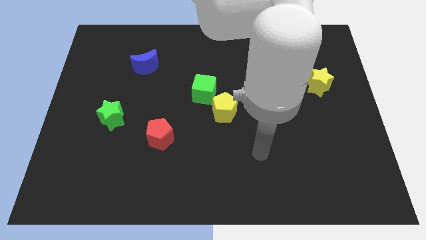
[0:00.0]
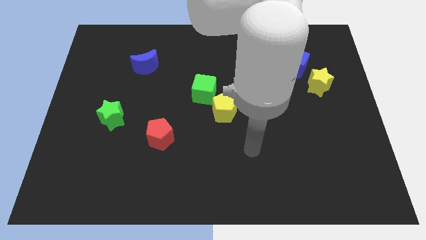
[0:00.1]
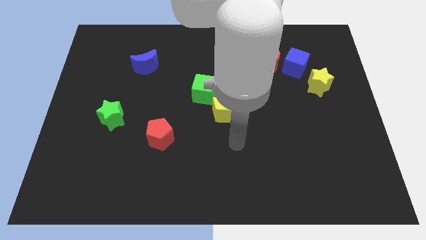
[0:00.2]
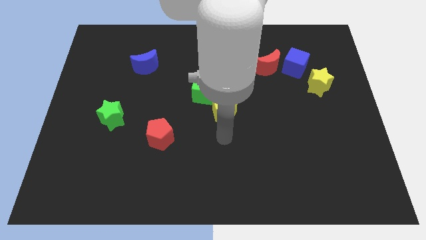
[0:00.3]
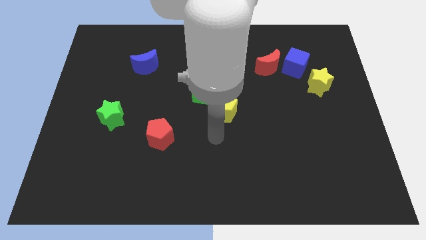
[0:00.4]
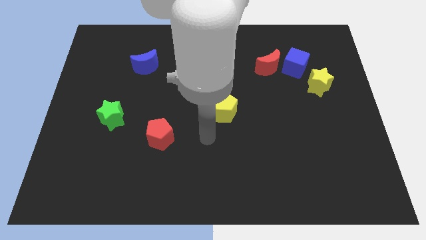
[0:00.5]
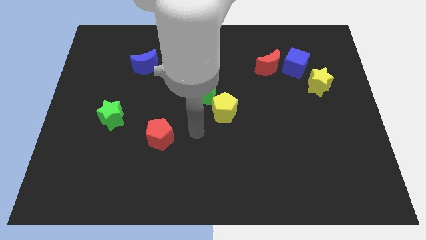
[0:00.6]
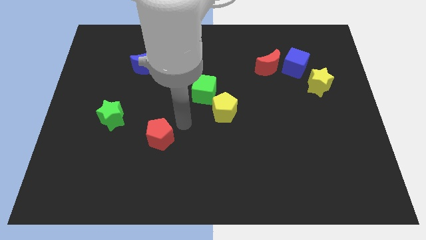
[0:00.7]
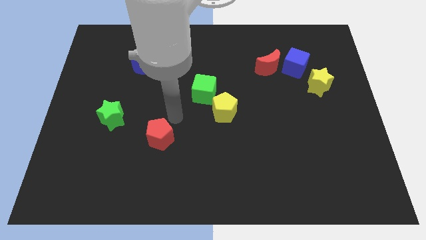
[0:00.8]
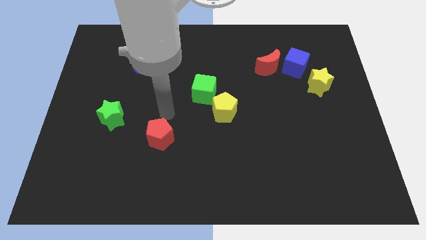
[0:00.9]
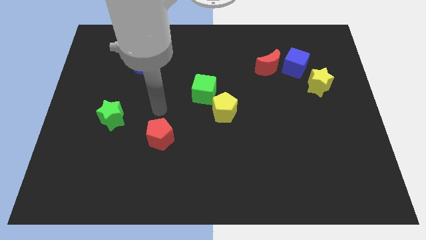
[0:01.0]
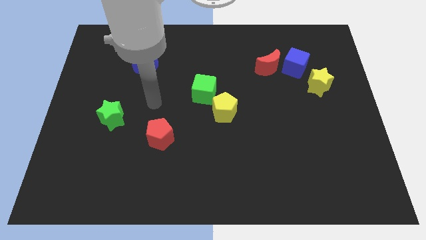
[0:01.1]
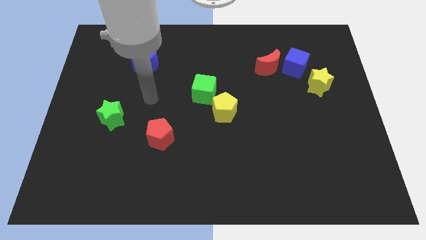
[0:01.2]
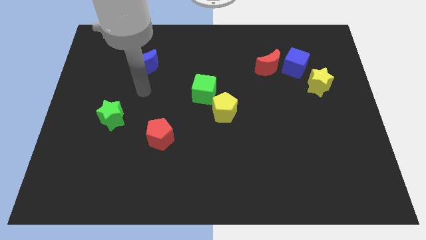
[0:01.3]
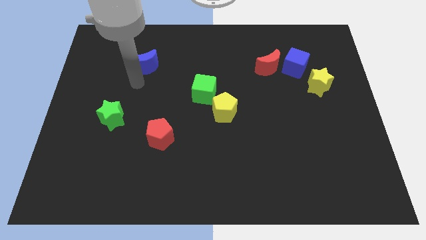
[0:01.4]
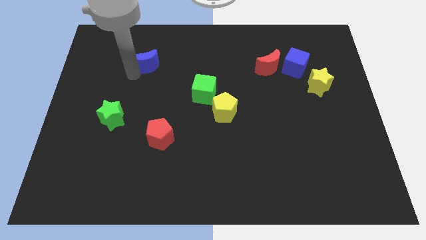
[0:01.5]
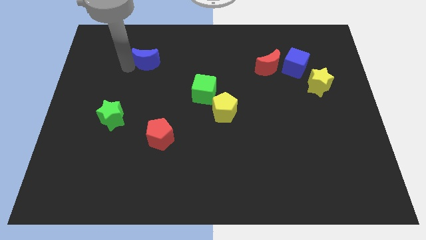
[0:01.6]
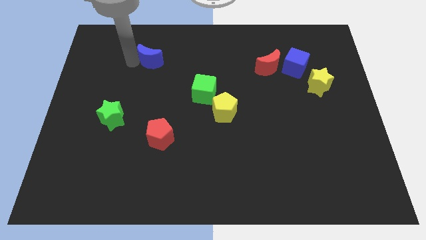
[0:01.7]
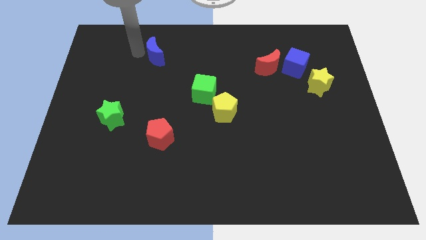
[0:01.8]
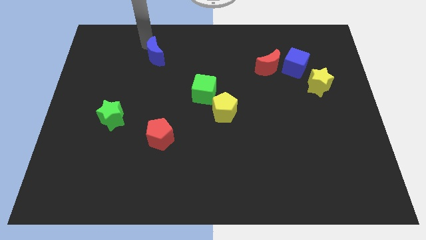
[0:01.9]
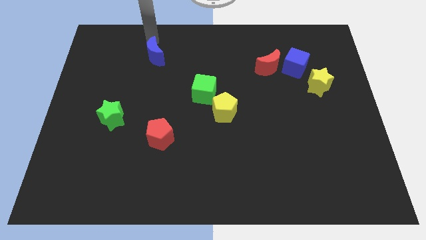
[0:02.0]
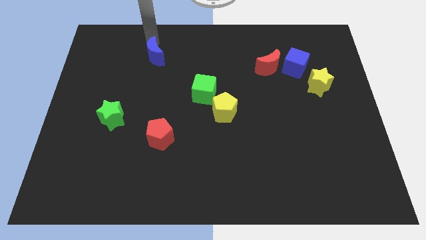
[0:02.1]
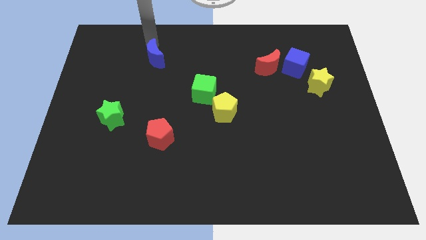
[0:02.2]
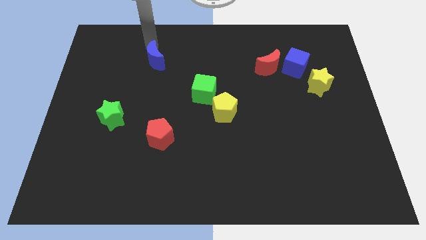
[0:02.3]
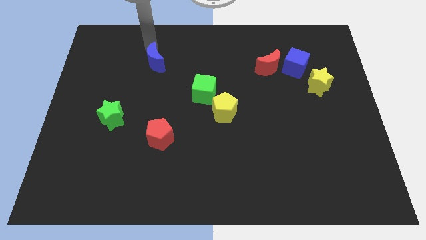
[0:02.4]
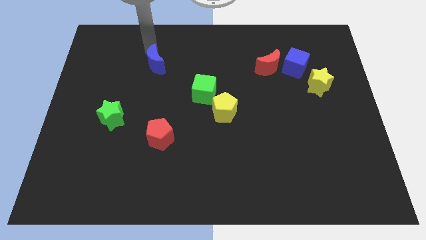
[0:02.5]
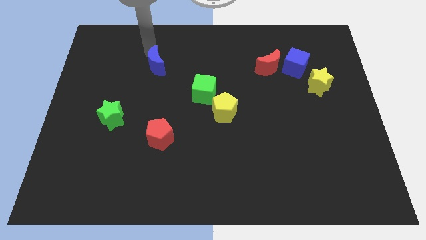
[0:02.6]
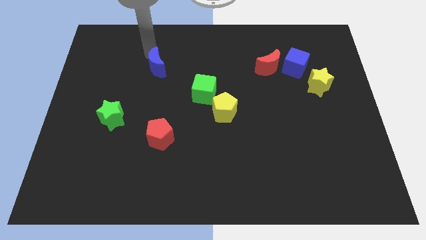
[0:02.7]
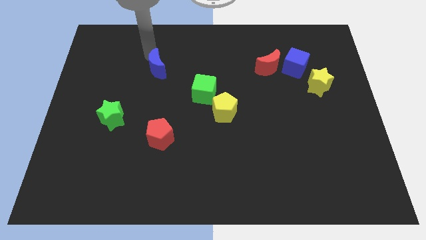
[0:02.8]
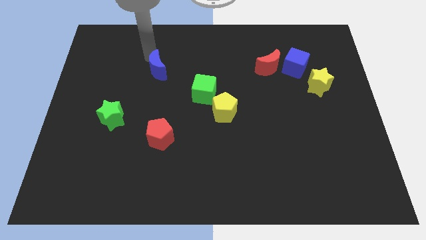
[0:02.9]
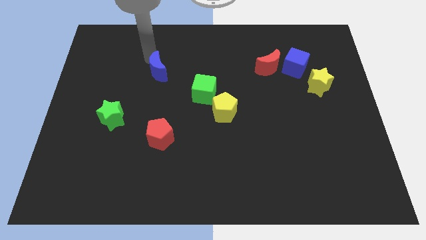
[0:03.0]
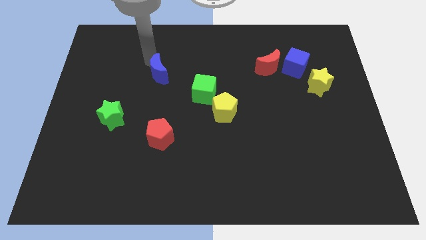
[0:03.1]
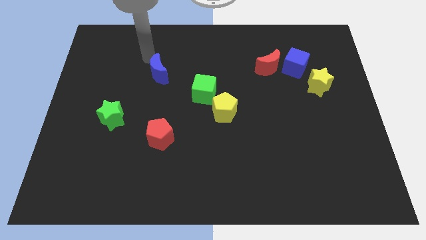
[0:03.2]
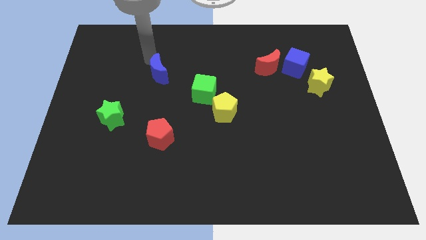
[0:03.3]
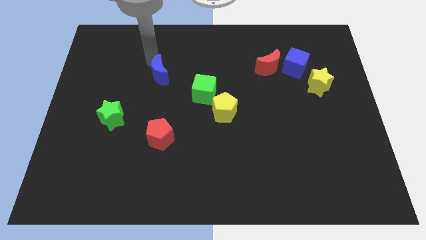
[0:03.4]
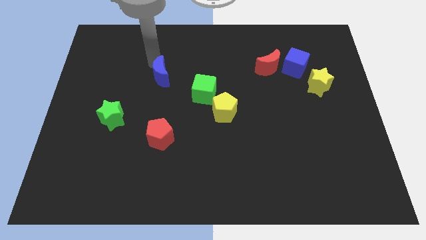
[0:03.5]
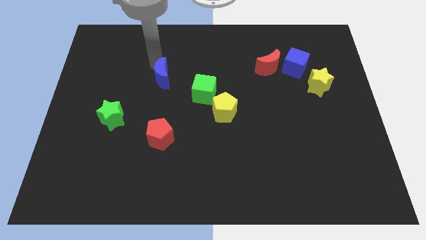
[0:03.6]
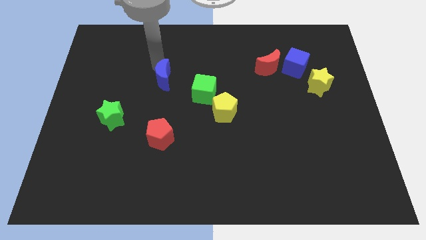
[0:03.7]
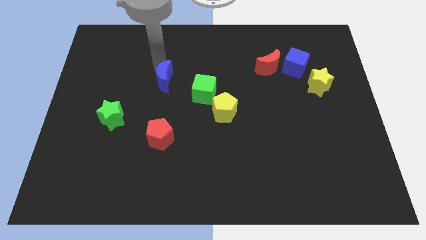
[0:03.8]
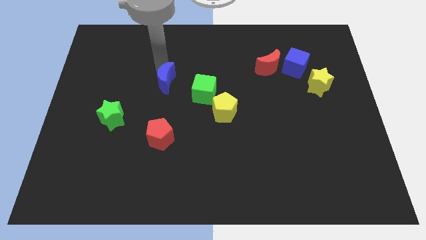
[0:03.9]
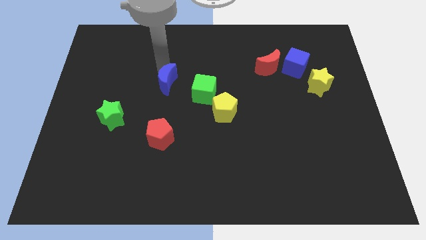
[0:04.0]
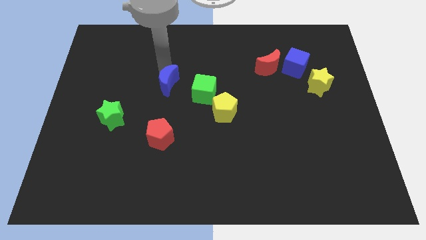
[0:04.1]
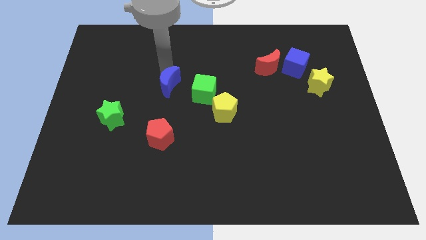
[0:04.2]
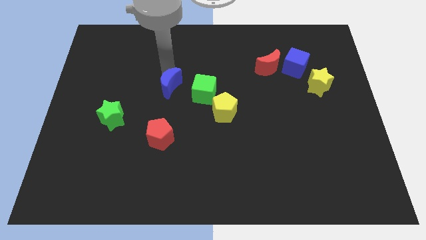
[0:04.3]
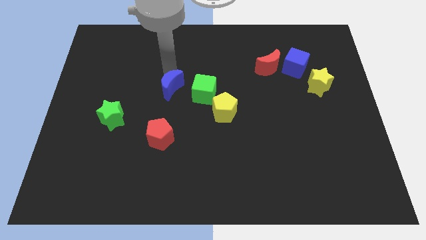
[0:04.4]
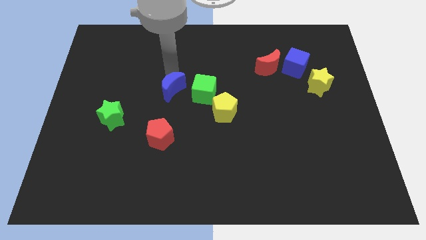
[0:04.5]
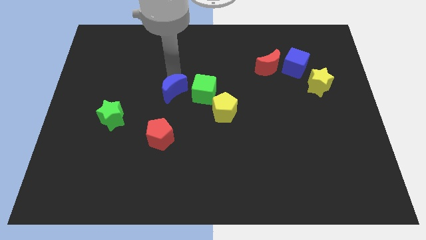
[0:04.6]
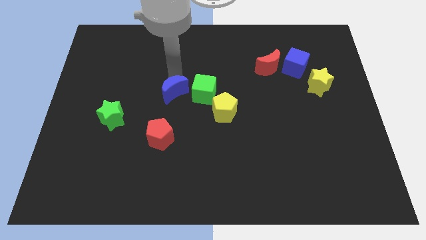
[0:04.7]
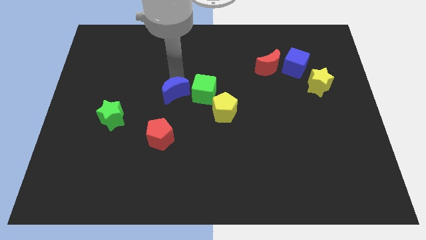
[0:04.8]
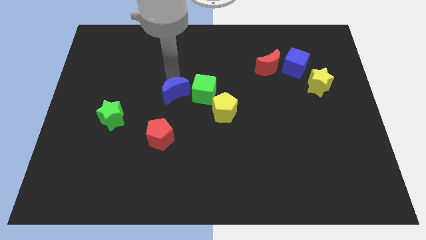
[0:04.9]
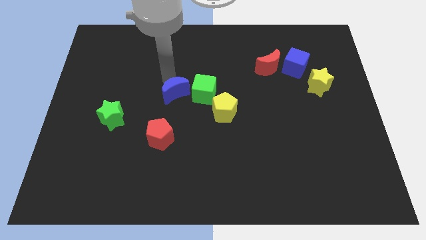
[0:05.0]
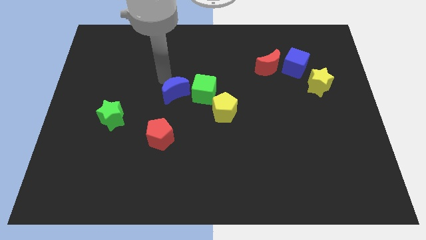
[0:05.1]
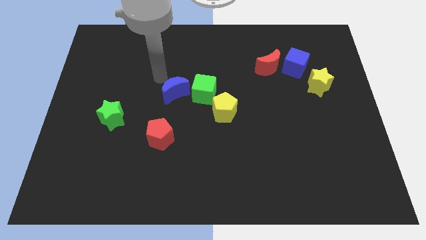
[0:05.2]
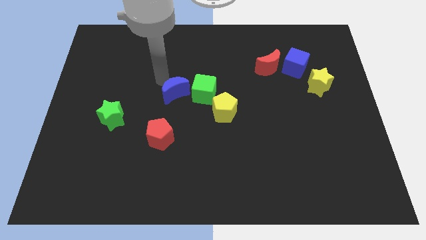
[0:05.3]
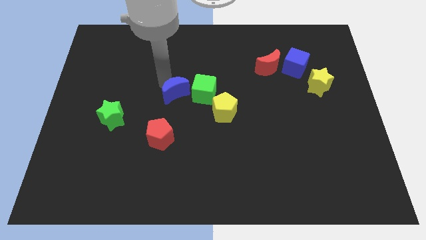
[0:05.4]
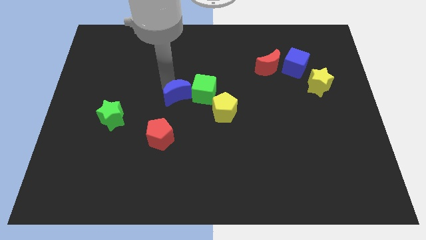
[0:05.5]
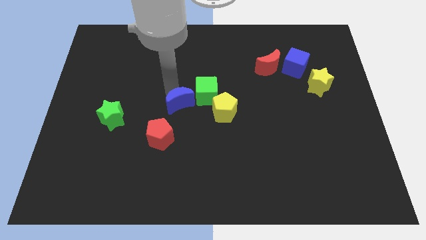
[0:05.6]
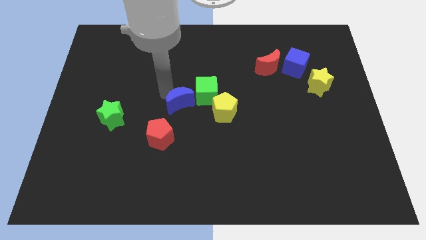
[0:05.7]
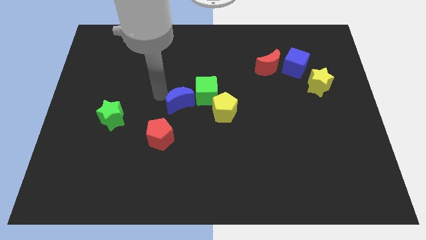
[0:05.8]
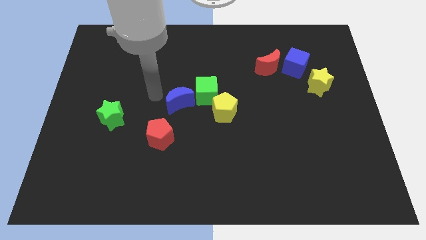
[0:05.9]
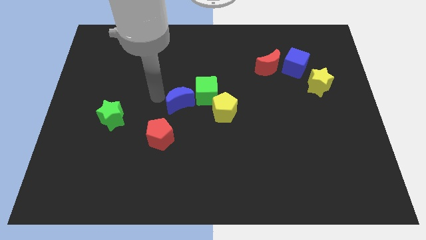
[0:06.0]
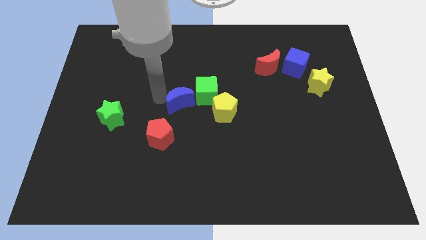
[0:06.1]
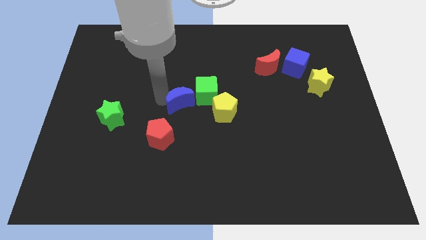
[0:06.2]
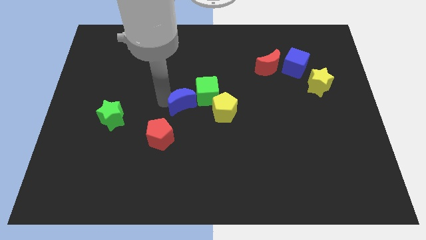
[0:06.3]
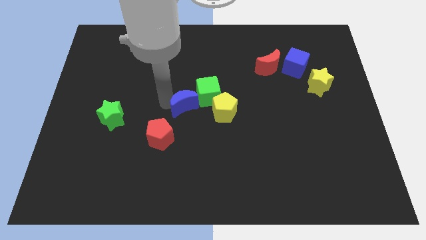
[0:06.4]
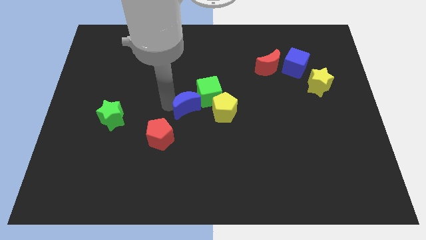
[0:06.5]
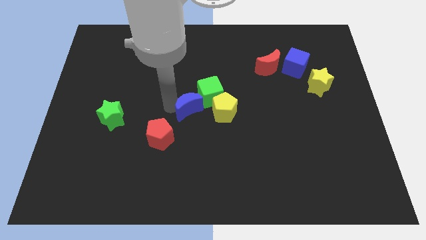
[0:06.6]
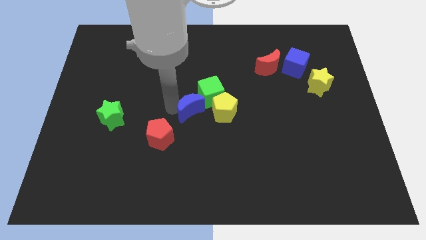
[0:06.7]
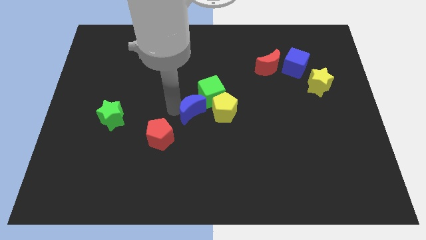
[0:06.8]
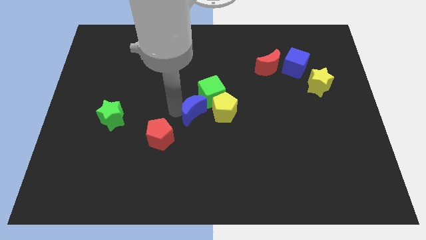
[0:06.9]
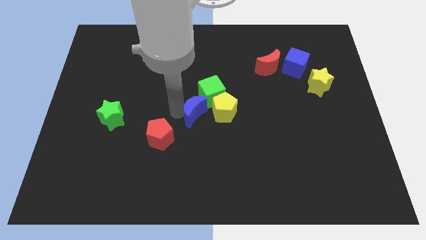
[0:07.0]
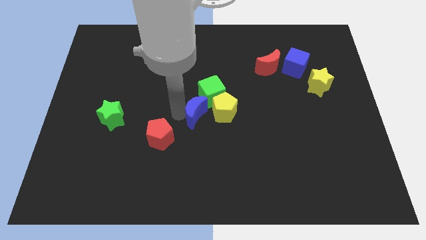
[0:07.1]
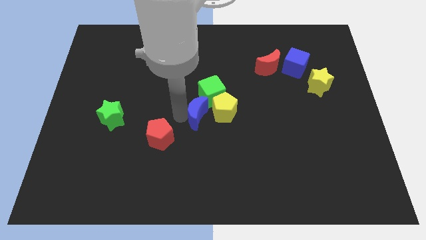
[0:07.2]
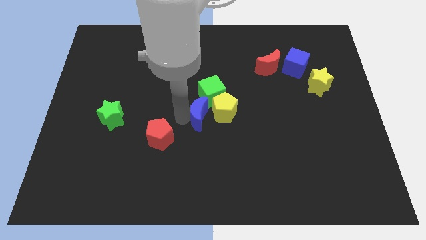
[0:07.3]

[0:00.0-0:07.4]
push the blue moon towards the yellow pentagon

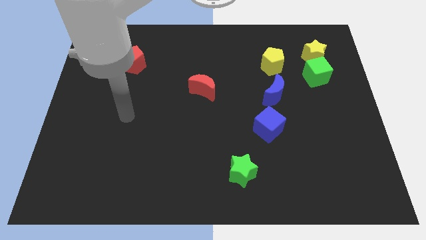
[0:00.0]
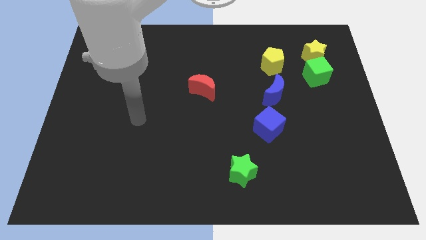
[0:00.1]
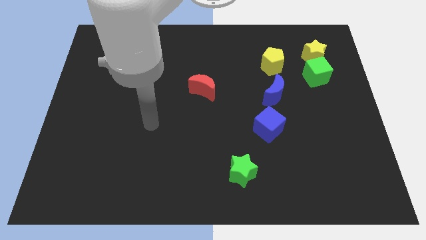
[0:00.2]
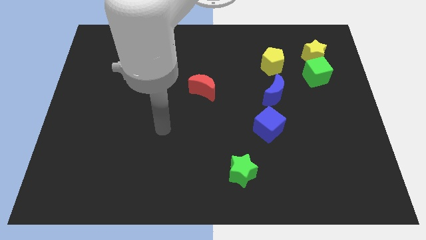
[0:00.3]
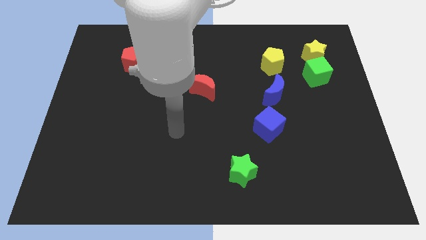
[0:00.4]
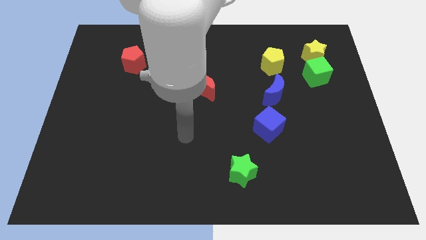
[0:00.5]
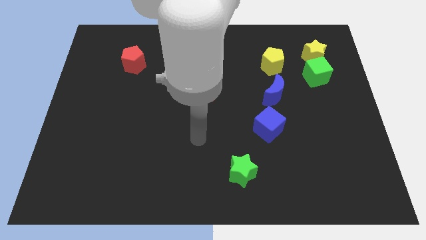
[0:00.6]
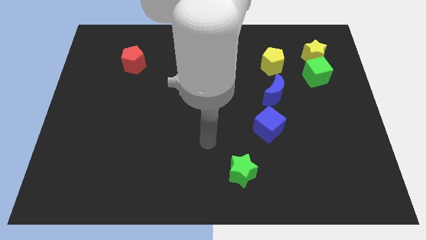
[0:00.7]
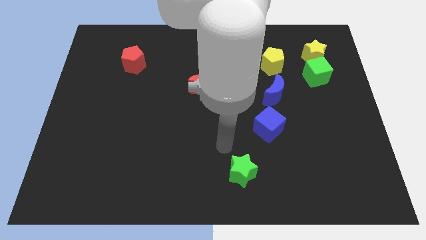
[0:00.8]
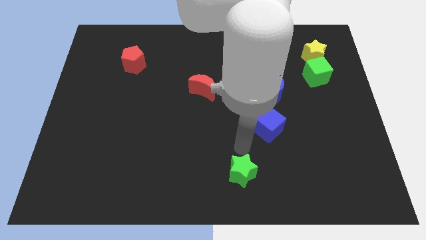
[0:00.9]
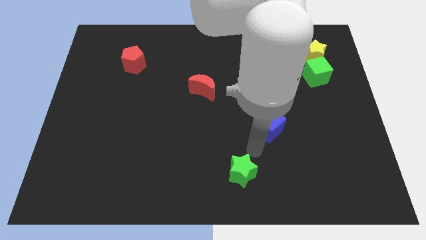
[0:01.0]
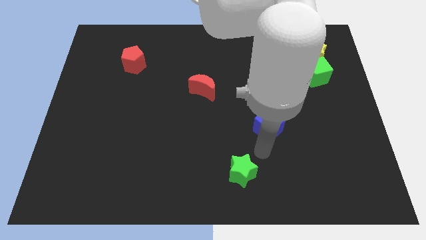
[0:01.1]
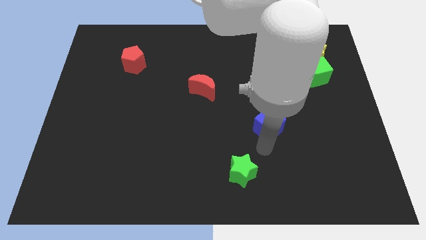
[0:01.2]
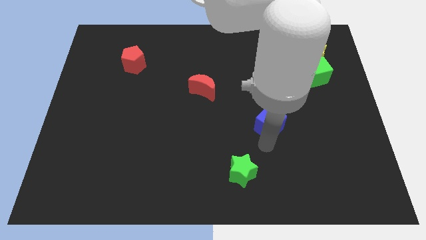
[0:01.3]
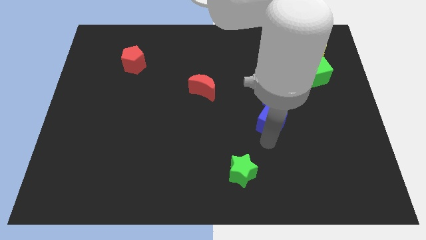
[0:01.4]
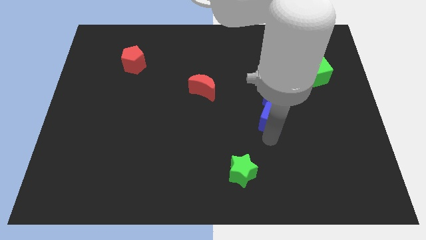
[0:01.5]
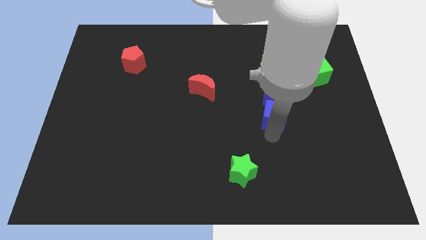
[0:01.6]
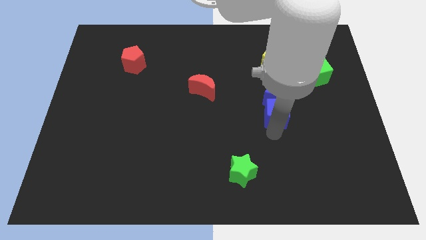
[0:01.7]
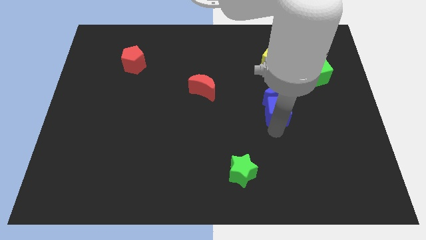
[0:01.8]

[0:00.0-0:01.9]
move the blue cube close to the blue moon
